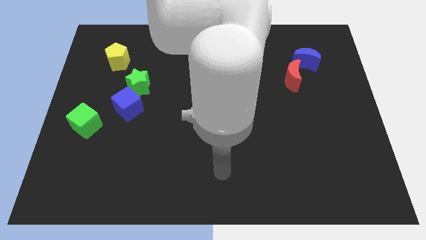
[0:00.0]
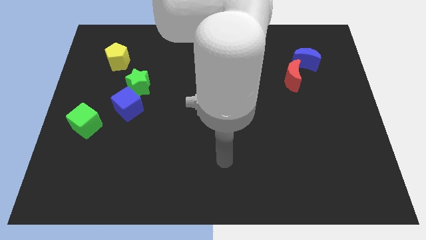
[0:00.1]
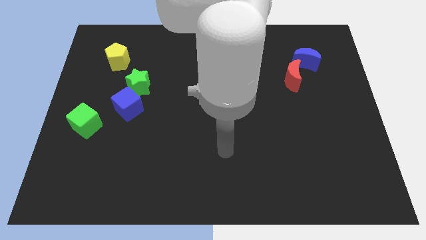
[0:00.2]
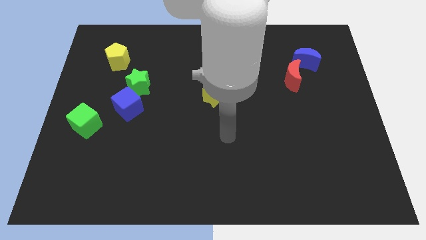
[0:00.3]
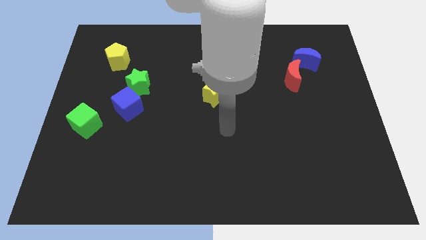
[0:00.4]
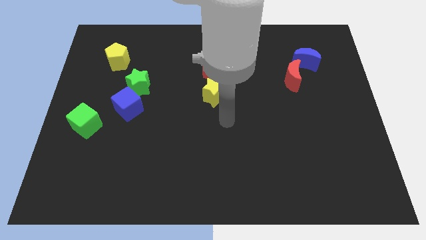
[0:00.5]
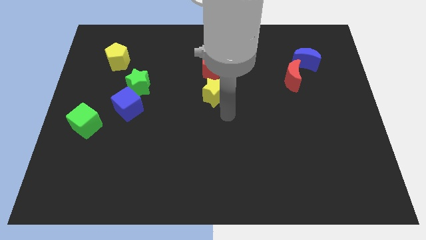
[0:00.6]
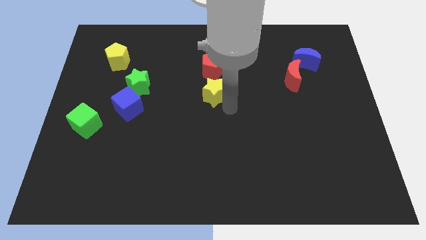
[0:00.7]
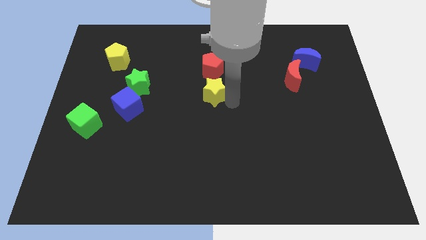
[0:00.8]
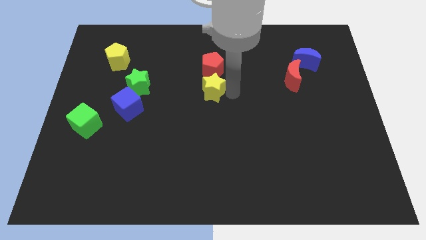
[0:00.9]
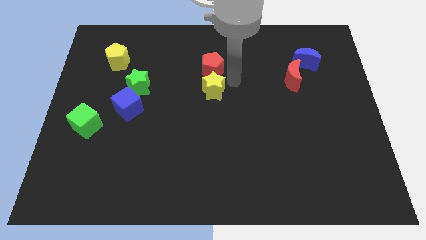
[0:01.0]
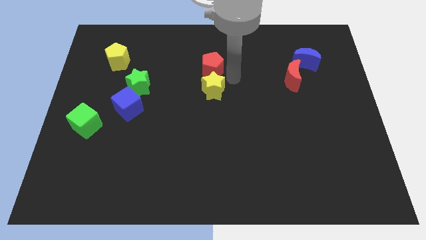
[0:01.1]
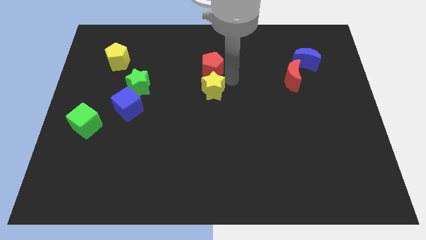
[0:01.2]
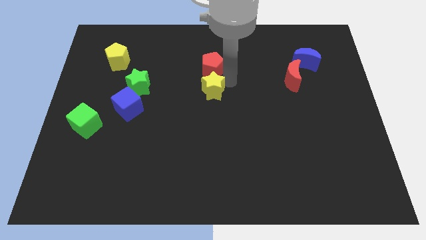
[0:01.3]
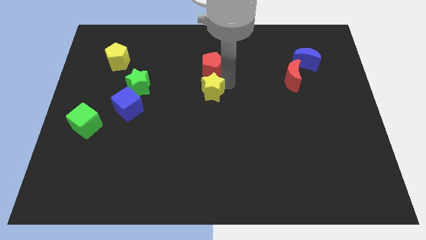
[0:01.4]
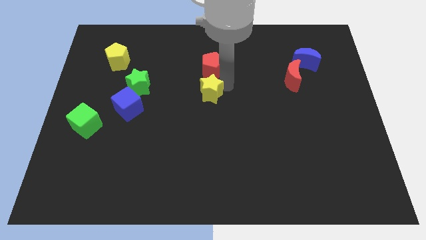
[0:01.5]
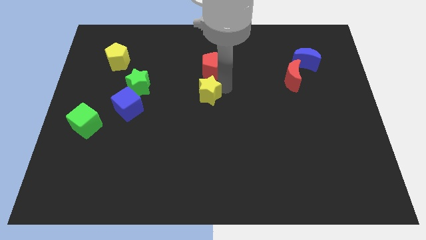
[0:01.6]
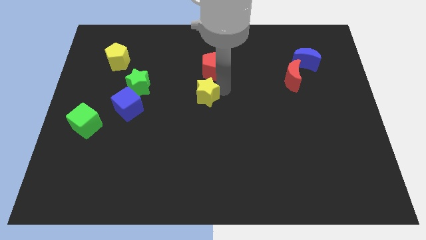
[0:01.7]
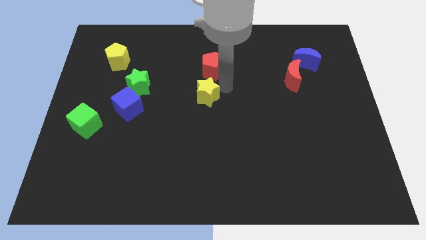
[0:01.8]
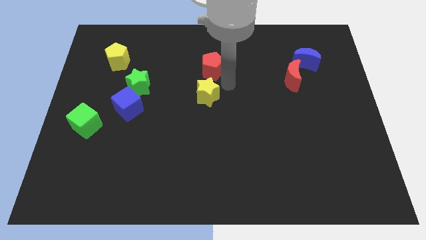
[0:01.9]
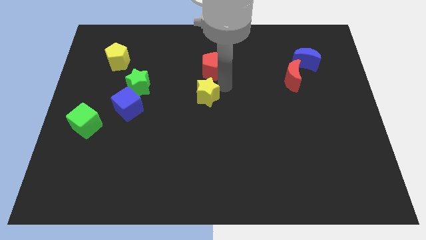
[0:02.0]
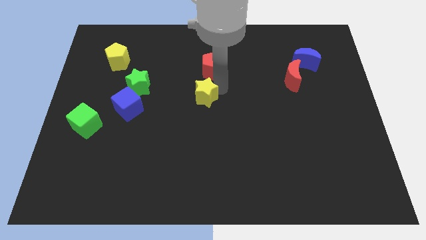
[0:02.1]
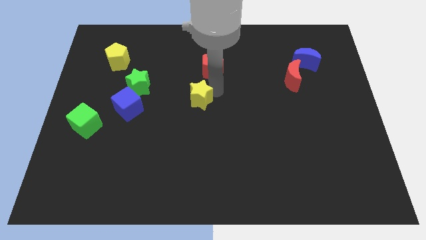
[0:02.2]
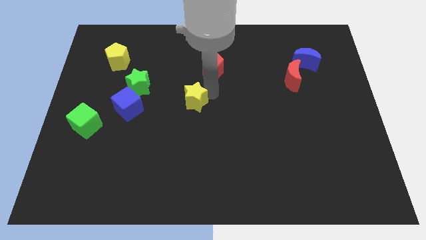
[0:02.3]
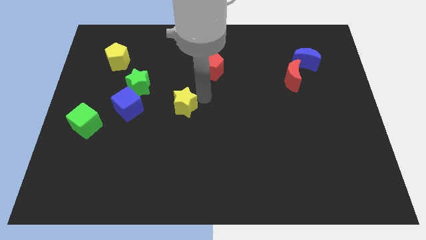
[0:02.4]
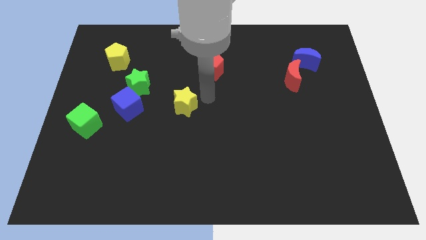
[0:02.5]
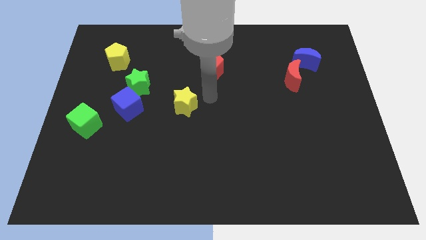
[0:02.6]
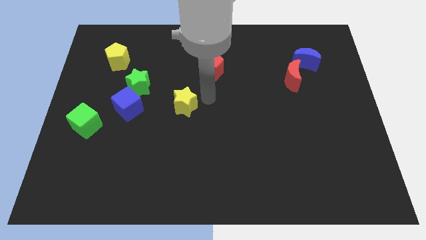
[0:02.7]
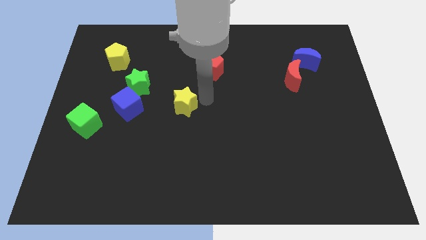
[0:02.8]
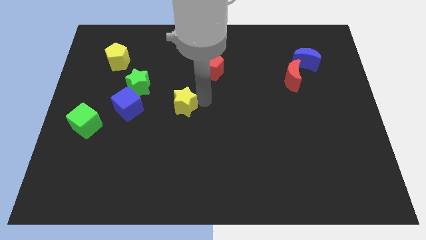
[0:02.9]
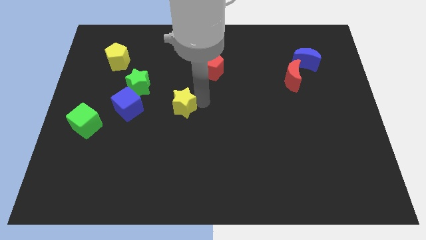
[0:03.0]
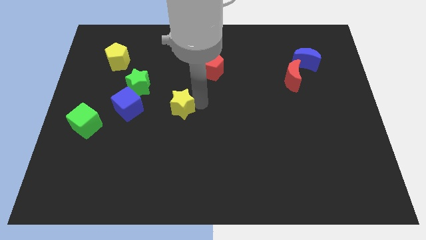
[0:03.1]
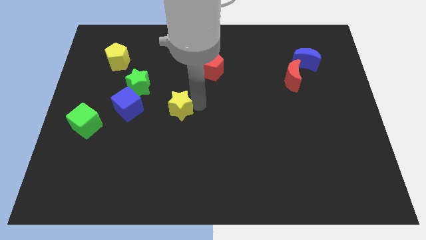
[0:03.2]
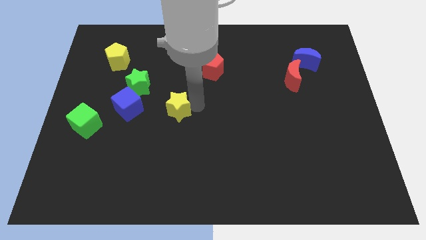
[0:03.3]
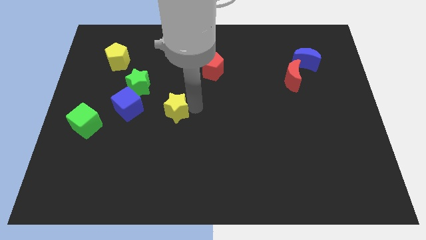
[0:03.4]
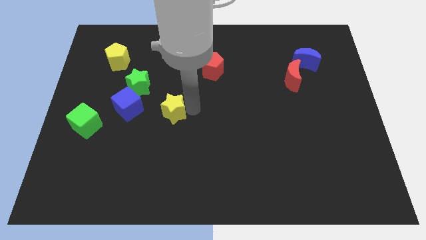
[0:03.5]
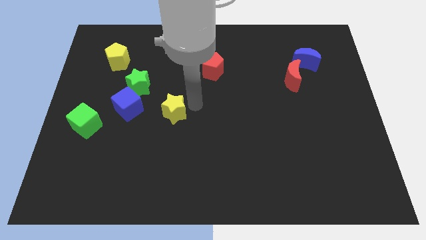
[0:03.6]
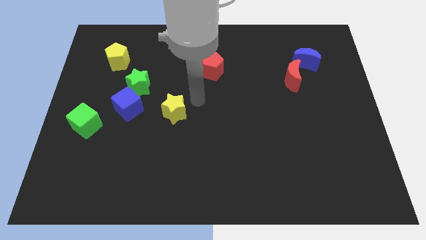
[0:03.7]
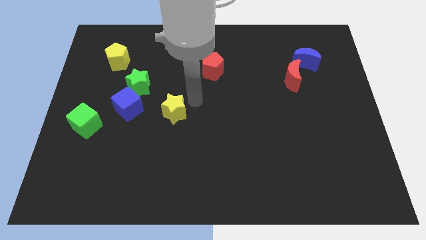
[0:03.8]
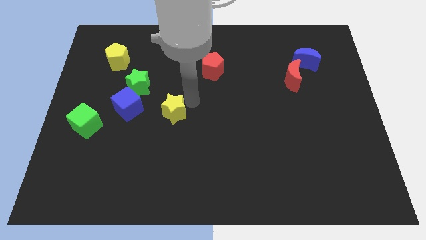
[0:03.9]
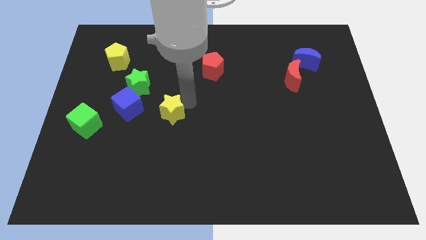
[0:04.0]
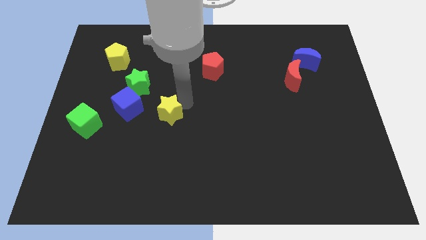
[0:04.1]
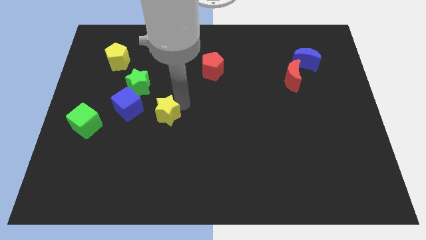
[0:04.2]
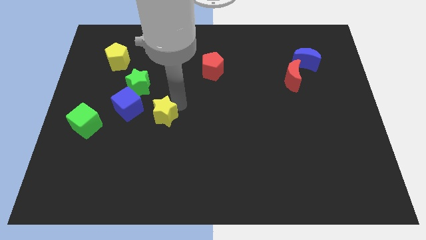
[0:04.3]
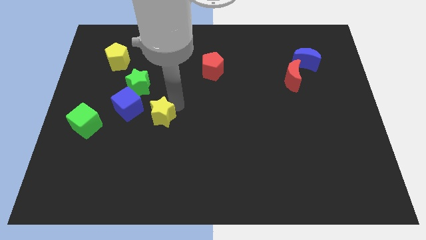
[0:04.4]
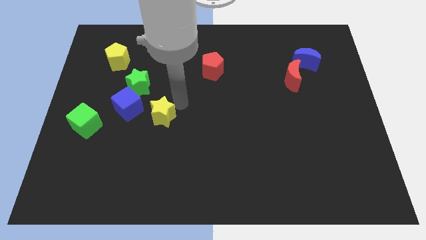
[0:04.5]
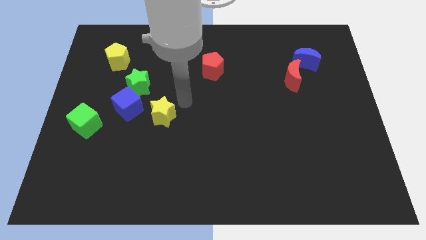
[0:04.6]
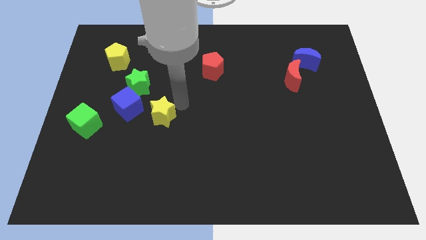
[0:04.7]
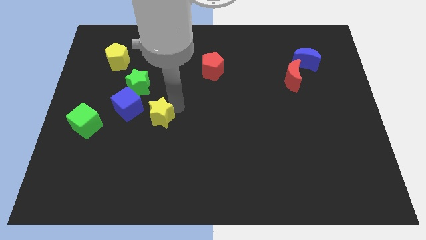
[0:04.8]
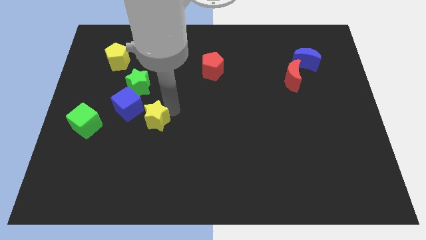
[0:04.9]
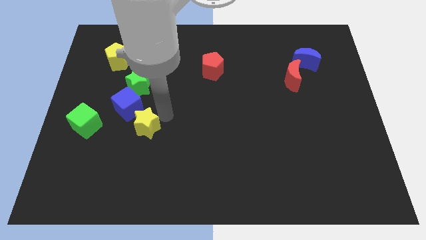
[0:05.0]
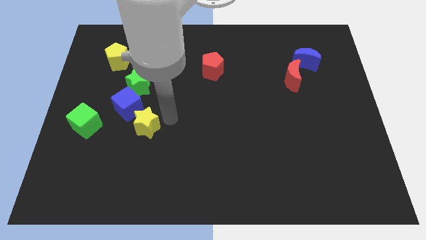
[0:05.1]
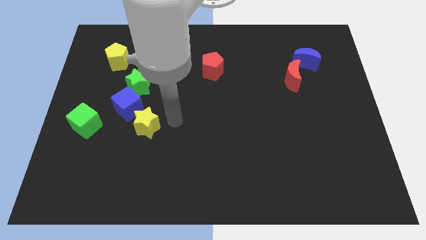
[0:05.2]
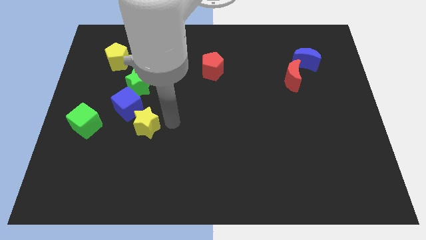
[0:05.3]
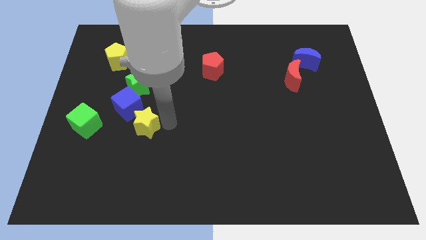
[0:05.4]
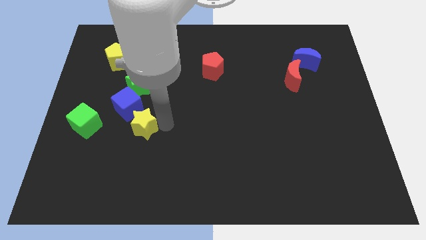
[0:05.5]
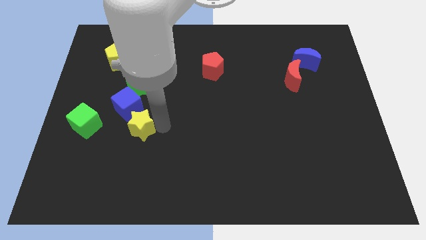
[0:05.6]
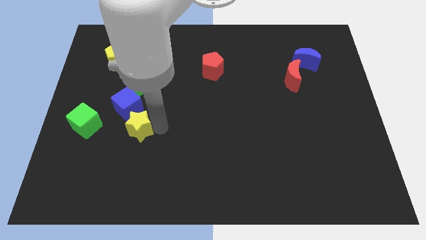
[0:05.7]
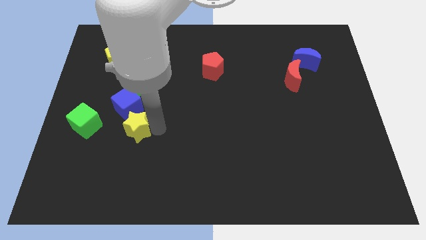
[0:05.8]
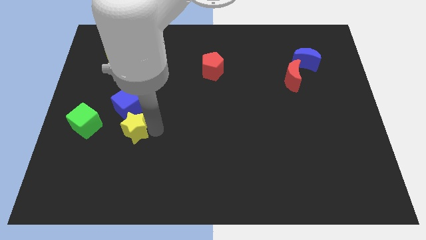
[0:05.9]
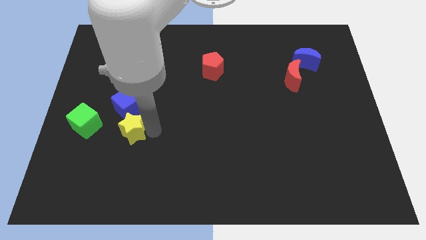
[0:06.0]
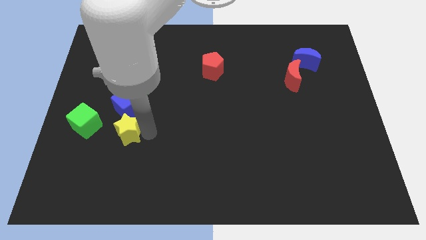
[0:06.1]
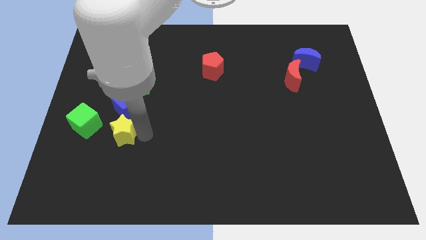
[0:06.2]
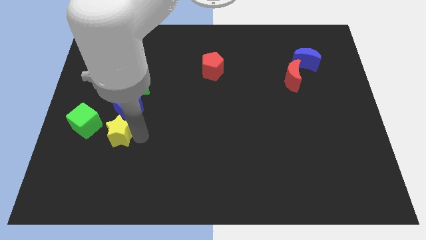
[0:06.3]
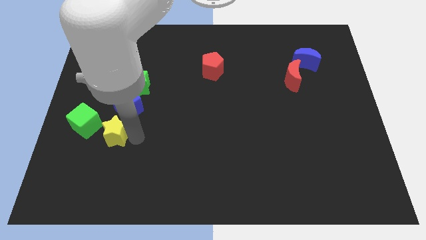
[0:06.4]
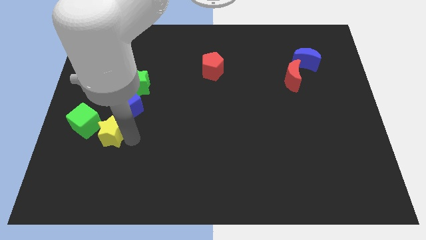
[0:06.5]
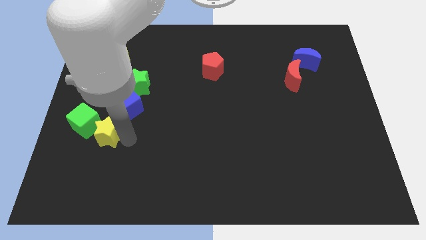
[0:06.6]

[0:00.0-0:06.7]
push the yellow star to the green cube

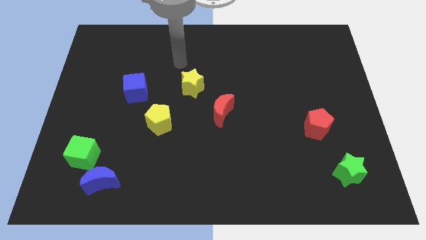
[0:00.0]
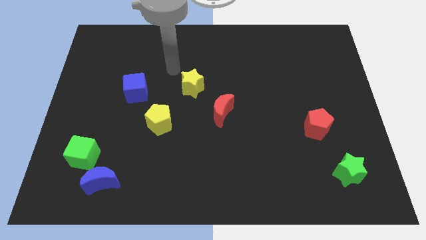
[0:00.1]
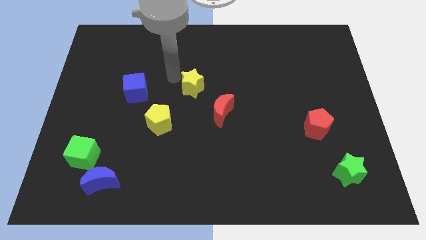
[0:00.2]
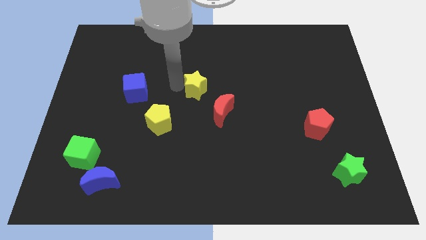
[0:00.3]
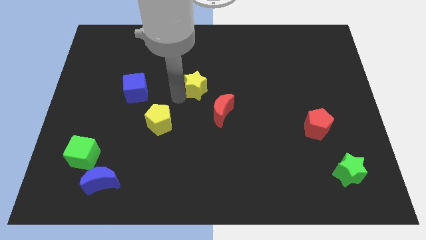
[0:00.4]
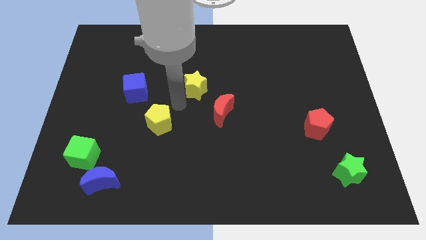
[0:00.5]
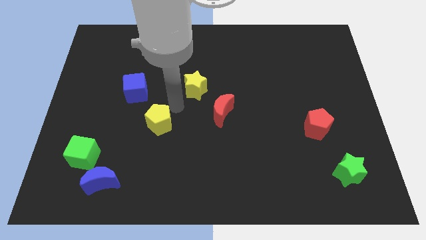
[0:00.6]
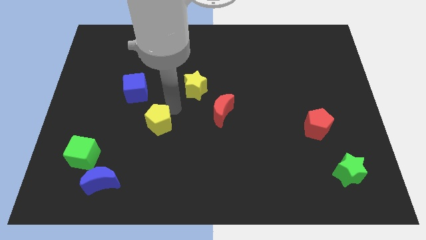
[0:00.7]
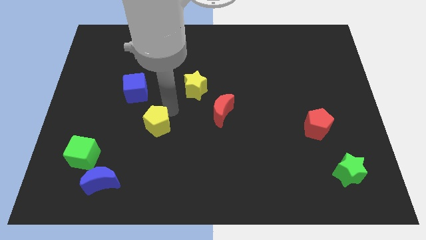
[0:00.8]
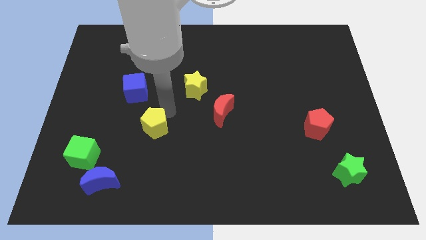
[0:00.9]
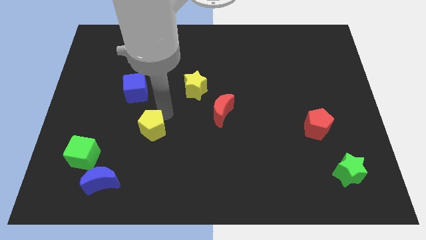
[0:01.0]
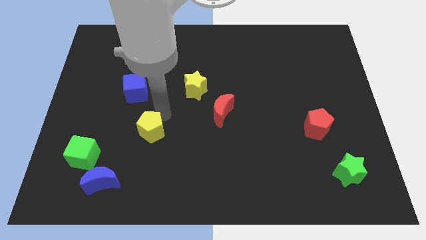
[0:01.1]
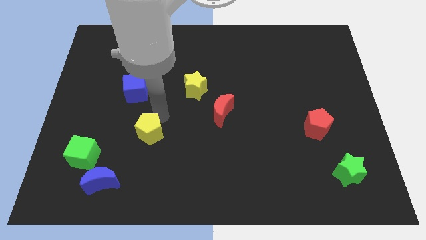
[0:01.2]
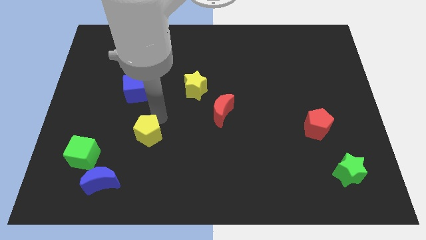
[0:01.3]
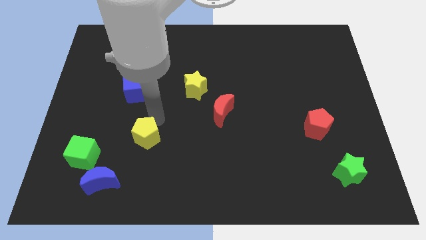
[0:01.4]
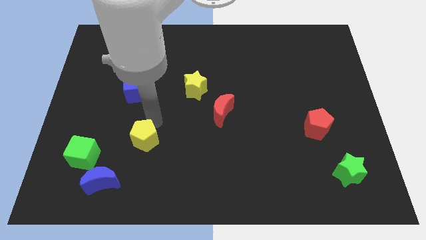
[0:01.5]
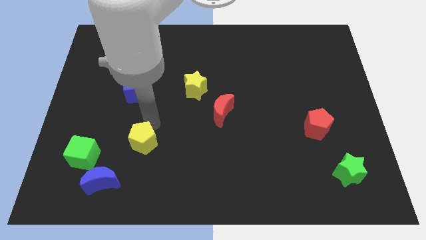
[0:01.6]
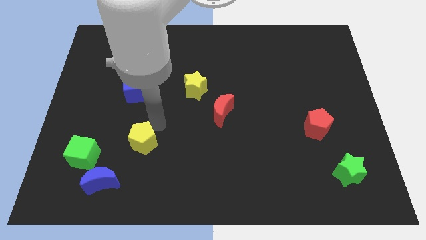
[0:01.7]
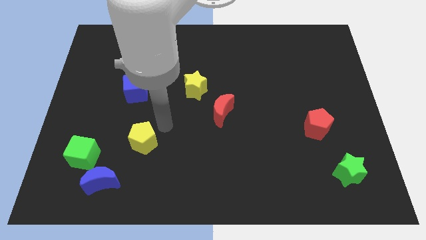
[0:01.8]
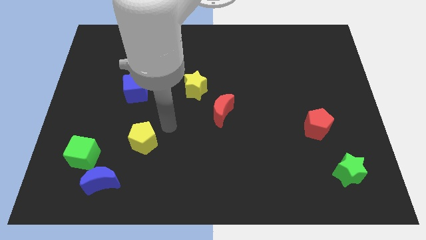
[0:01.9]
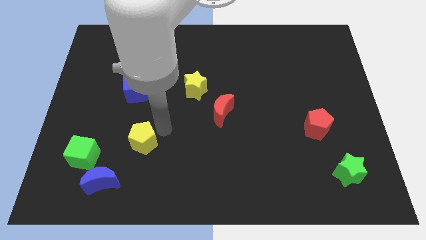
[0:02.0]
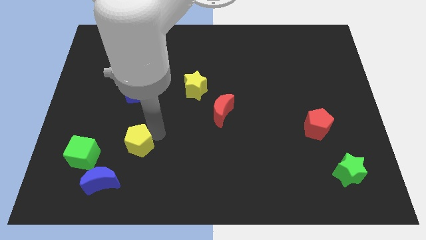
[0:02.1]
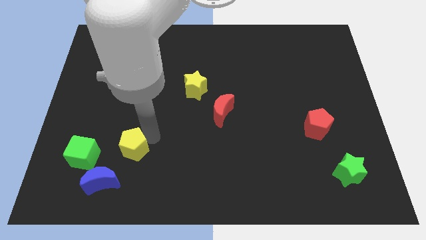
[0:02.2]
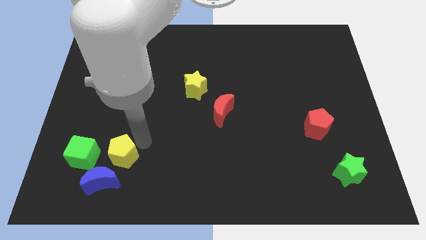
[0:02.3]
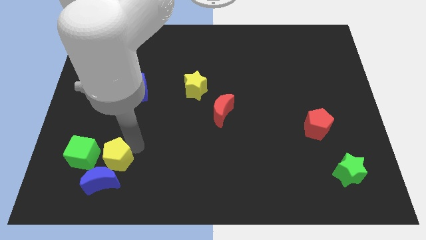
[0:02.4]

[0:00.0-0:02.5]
push the yellow pentagon towards the blue moon
